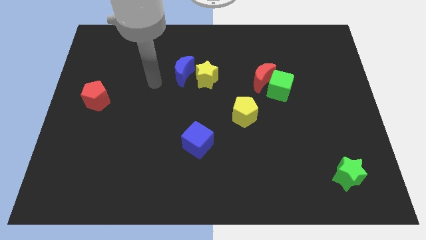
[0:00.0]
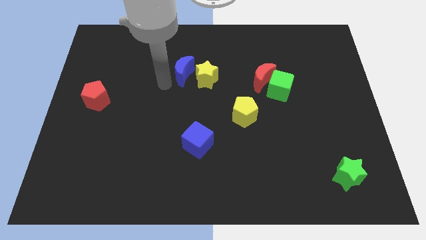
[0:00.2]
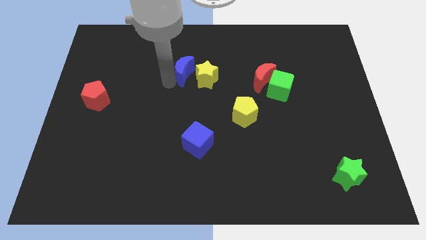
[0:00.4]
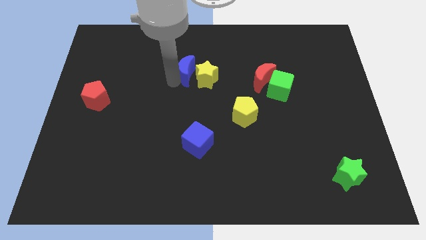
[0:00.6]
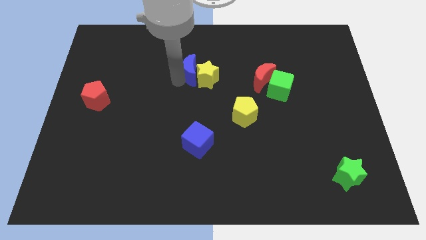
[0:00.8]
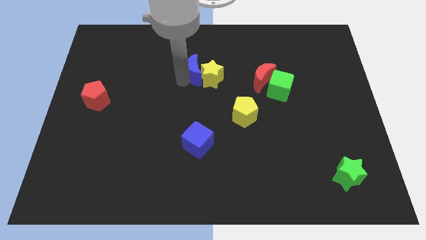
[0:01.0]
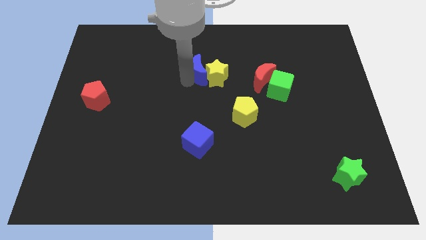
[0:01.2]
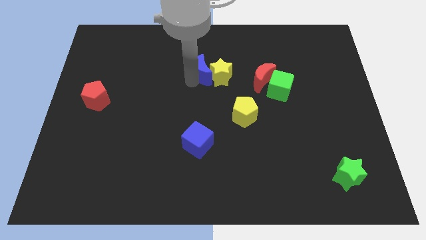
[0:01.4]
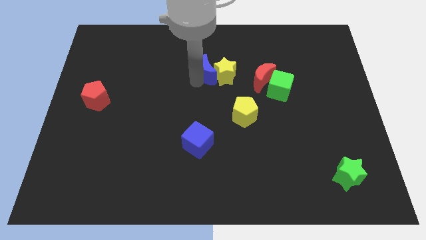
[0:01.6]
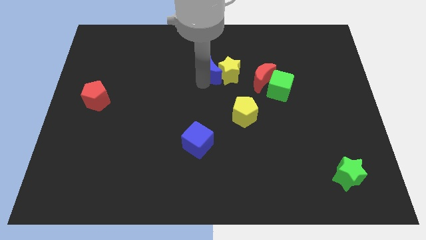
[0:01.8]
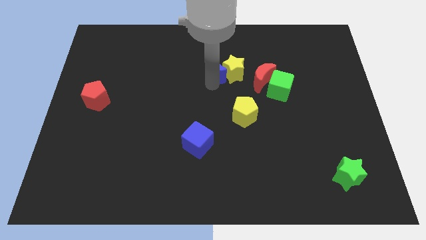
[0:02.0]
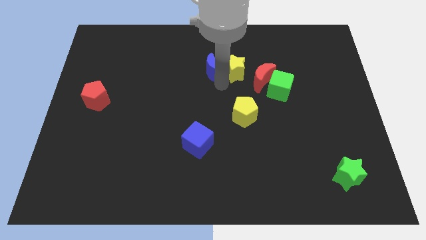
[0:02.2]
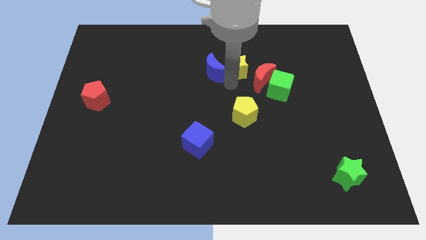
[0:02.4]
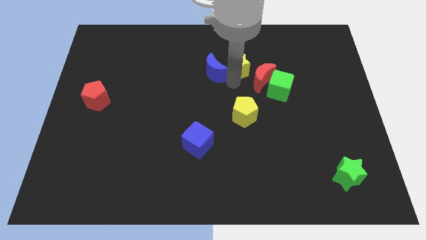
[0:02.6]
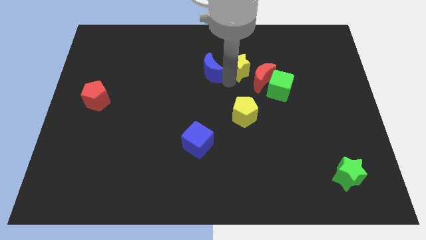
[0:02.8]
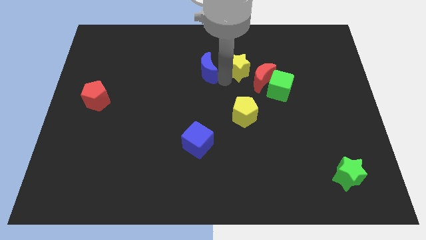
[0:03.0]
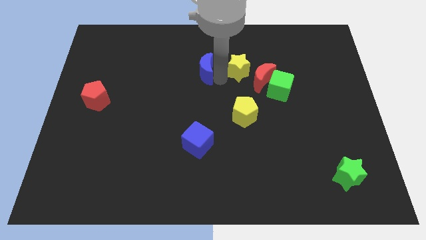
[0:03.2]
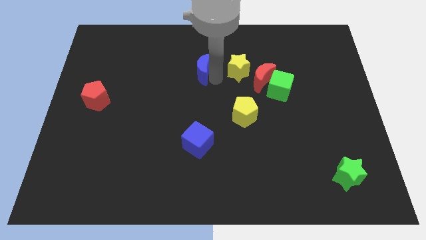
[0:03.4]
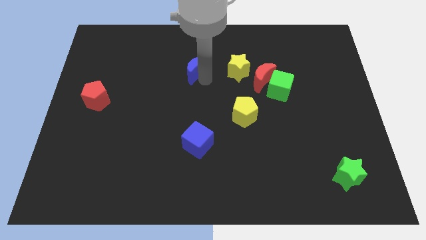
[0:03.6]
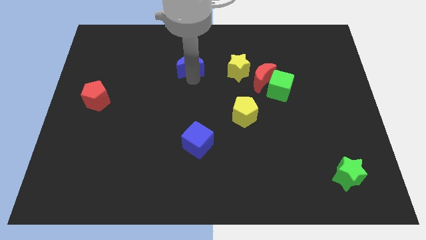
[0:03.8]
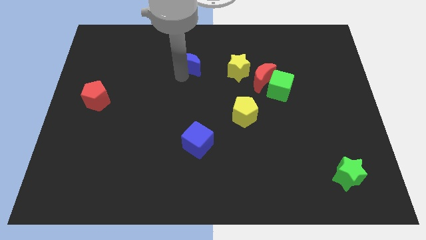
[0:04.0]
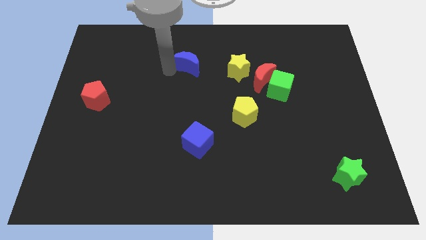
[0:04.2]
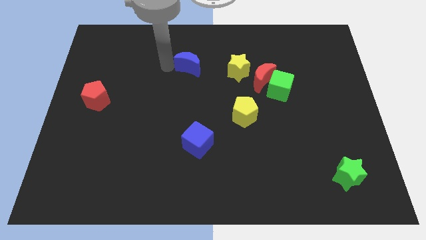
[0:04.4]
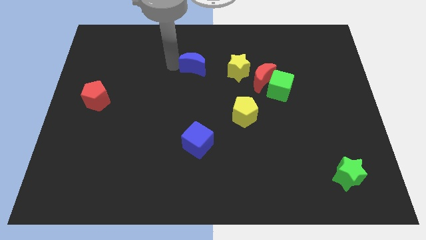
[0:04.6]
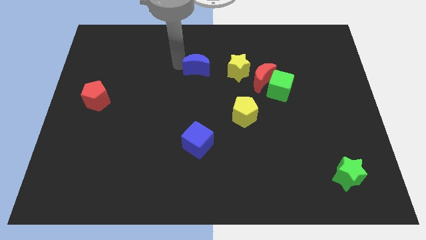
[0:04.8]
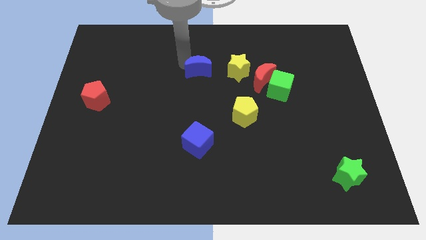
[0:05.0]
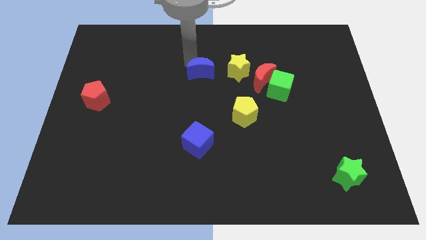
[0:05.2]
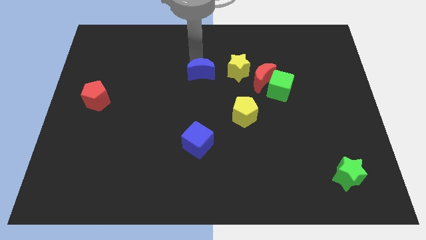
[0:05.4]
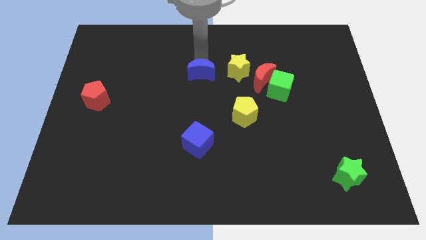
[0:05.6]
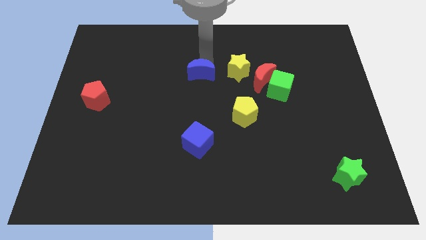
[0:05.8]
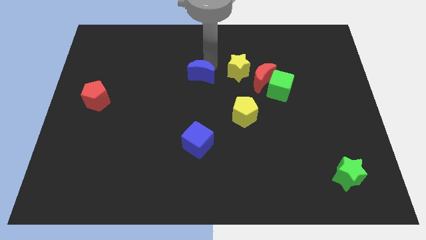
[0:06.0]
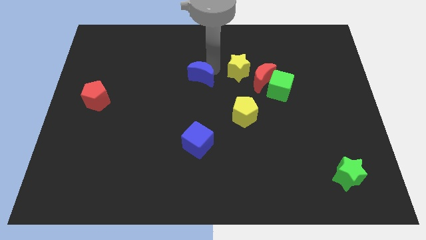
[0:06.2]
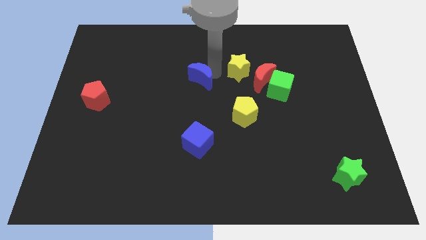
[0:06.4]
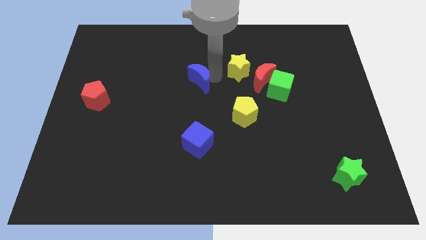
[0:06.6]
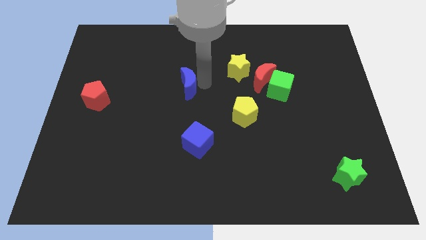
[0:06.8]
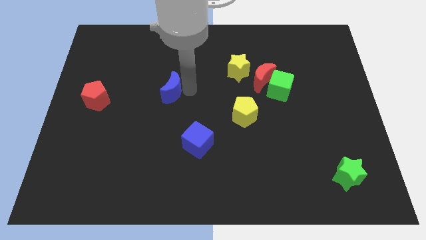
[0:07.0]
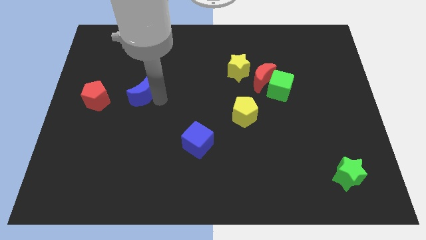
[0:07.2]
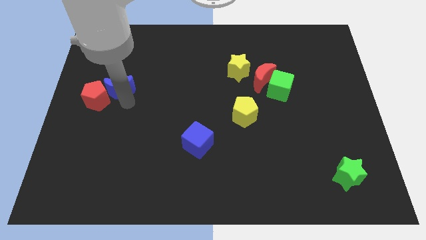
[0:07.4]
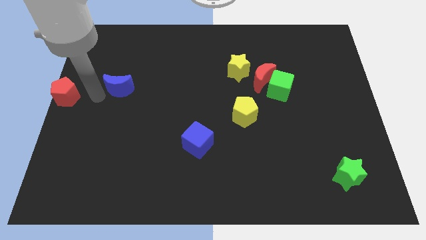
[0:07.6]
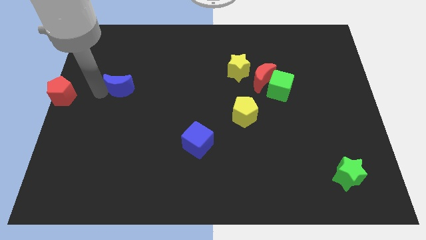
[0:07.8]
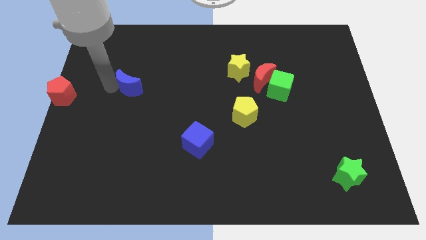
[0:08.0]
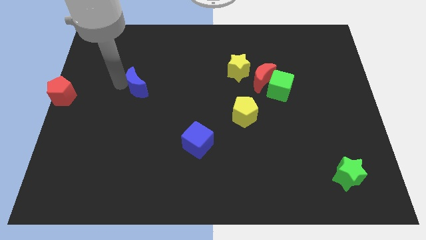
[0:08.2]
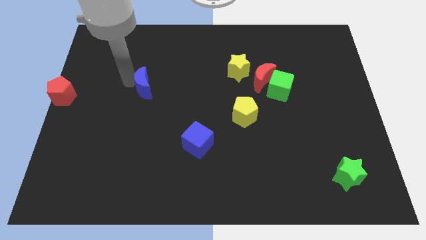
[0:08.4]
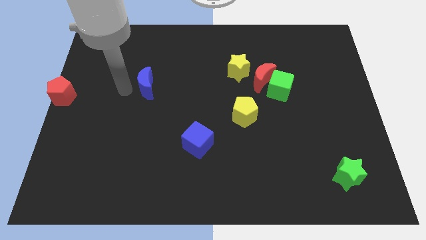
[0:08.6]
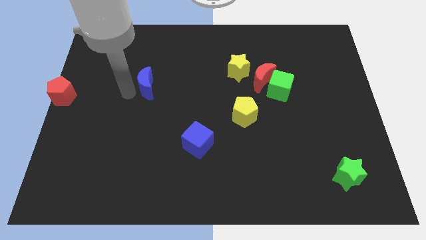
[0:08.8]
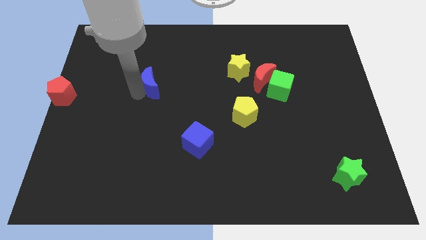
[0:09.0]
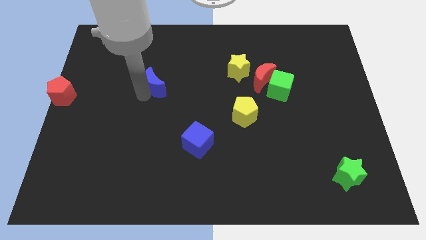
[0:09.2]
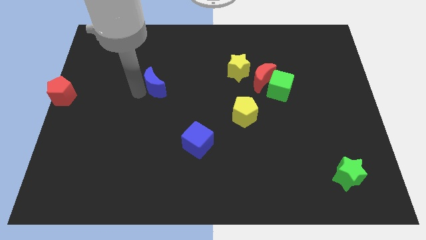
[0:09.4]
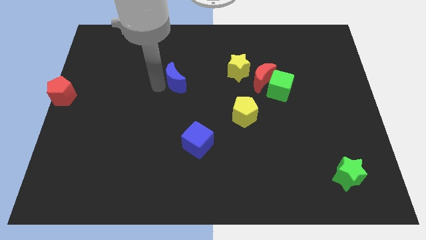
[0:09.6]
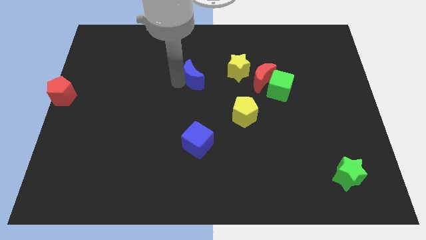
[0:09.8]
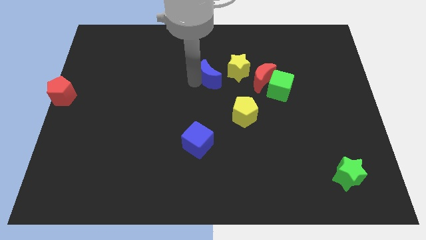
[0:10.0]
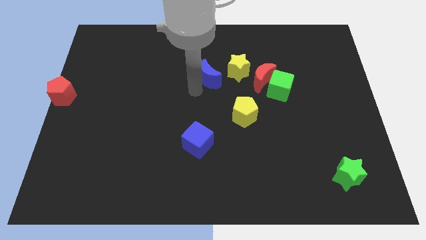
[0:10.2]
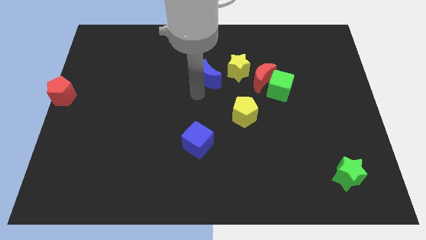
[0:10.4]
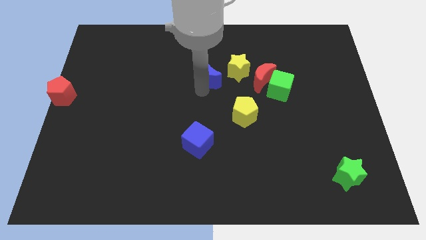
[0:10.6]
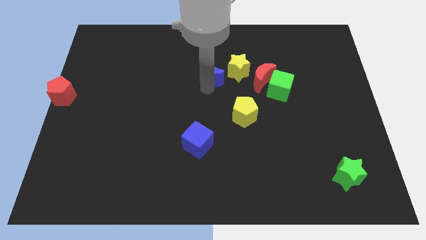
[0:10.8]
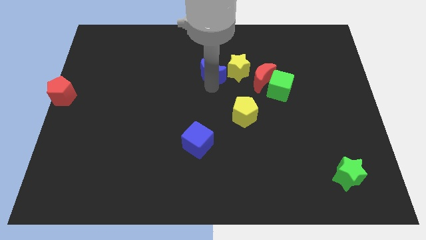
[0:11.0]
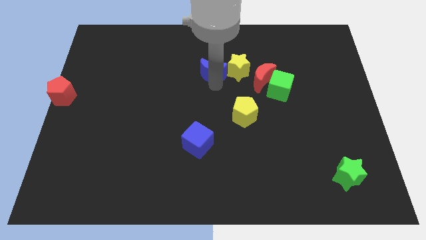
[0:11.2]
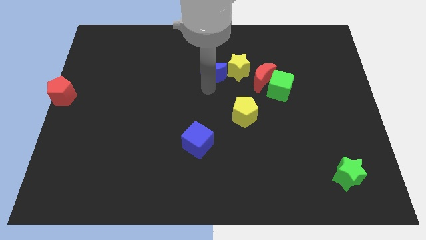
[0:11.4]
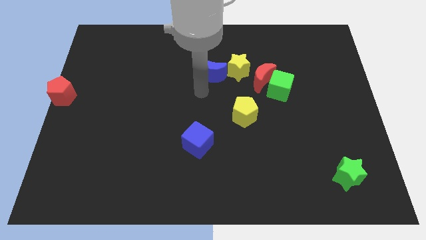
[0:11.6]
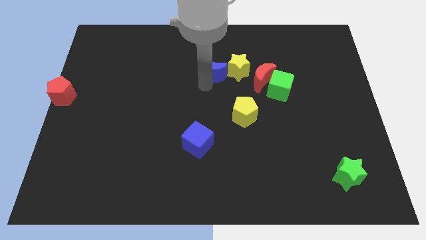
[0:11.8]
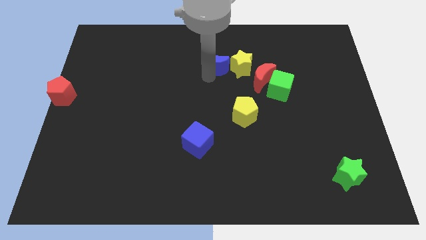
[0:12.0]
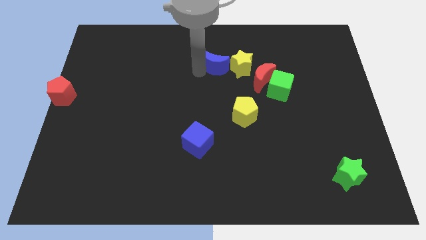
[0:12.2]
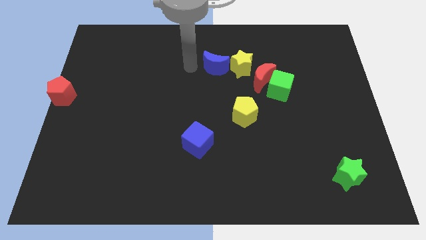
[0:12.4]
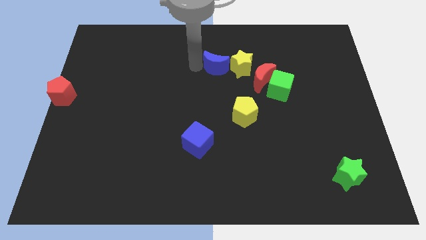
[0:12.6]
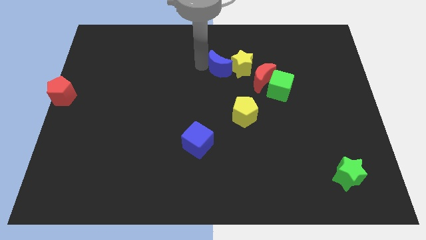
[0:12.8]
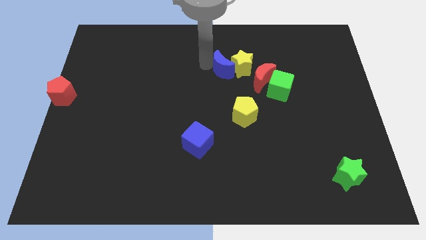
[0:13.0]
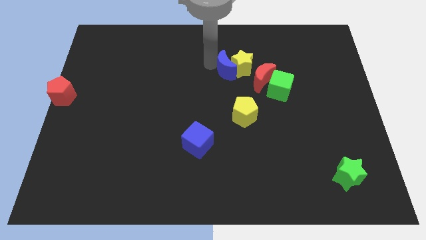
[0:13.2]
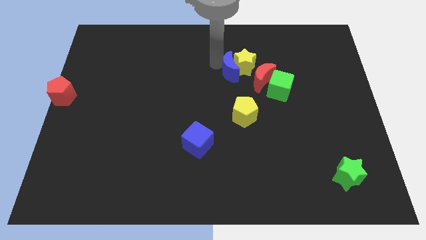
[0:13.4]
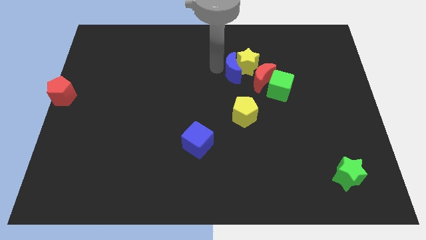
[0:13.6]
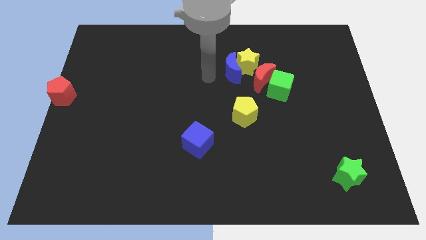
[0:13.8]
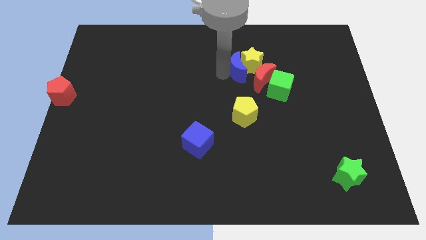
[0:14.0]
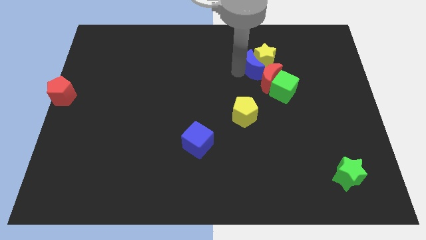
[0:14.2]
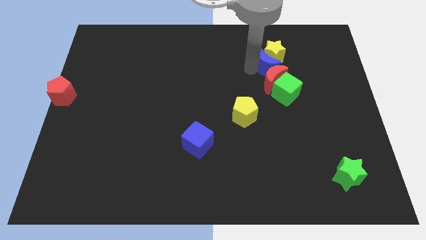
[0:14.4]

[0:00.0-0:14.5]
put the blue moon diagonally up and to the right of the red moon
